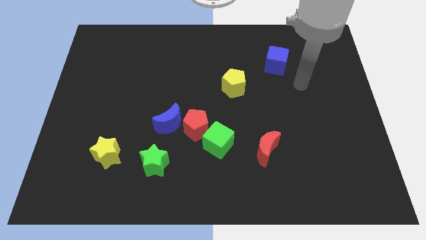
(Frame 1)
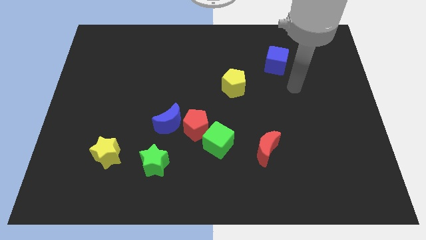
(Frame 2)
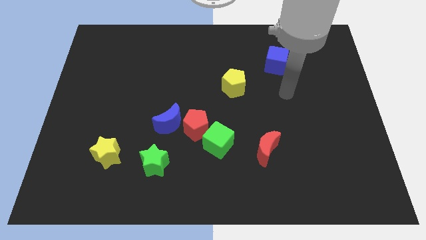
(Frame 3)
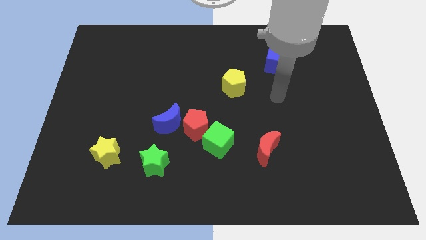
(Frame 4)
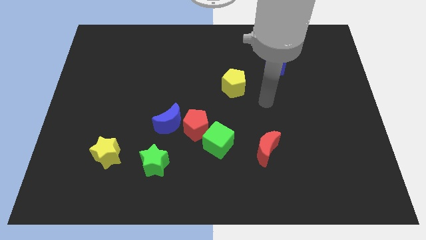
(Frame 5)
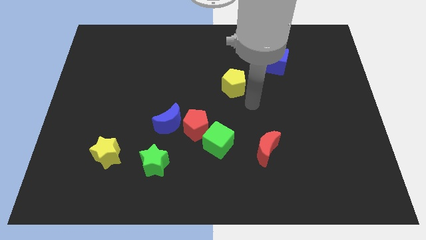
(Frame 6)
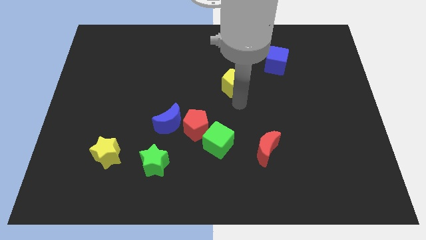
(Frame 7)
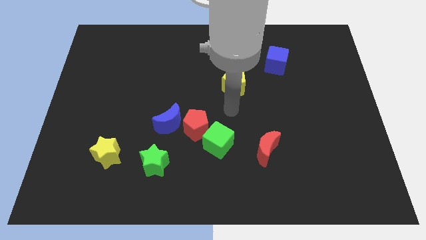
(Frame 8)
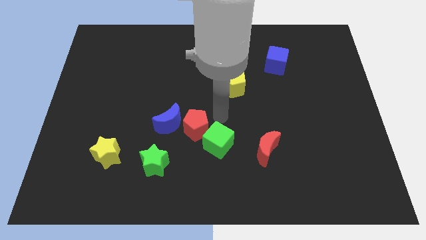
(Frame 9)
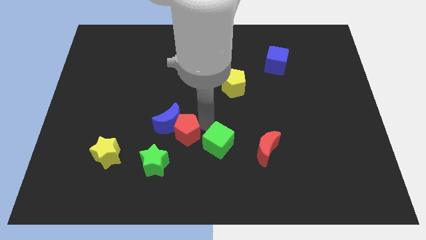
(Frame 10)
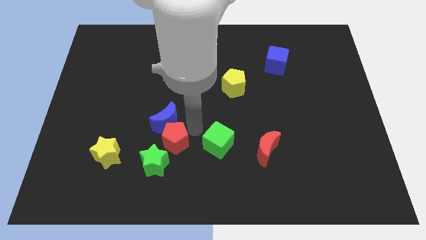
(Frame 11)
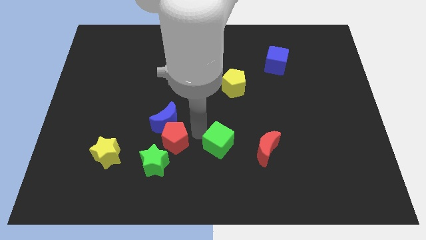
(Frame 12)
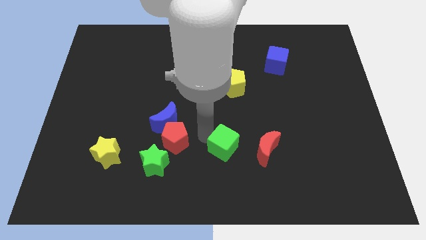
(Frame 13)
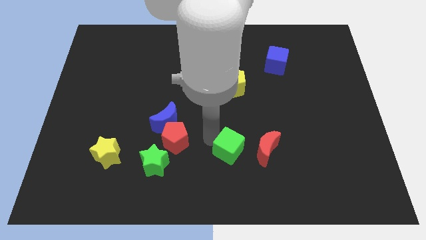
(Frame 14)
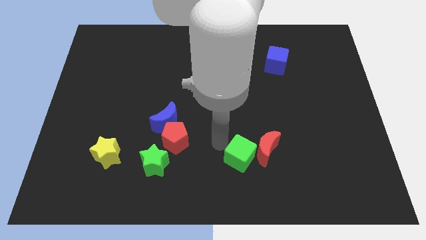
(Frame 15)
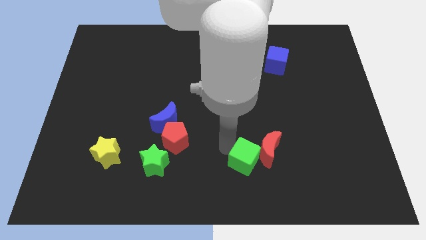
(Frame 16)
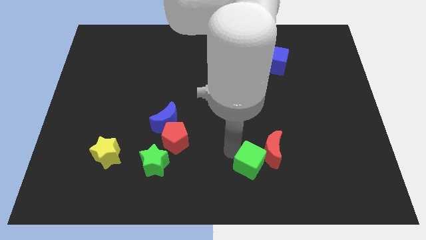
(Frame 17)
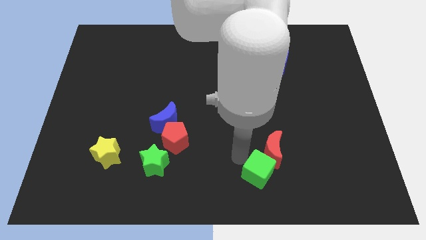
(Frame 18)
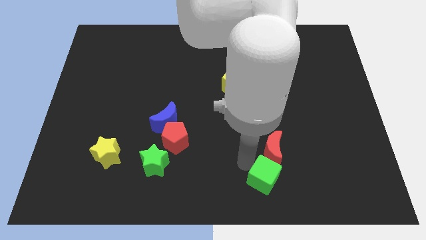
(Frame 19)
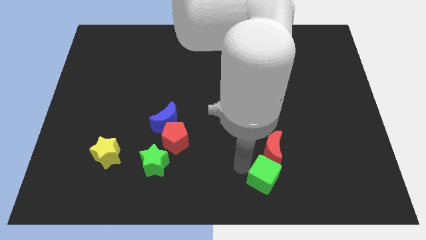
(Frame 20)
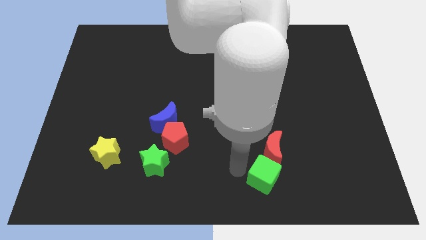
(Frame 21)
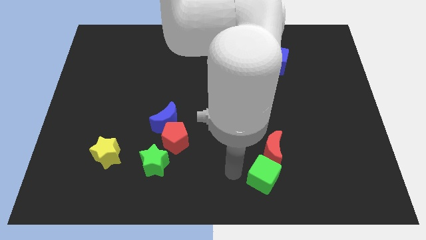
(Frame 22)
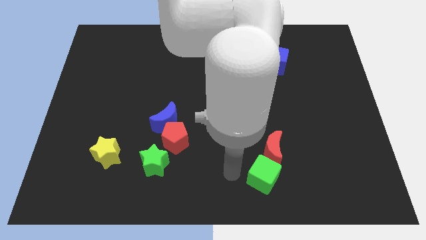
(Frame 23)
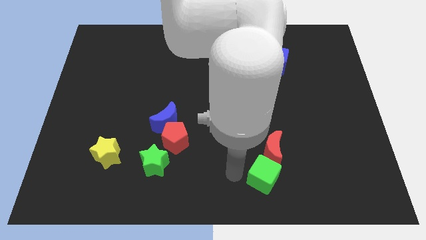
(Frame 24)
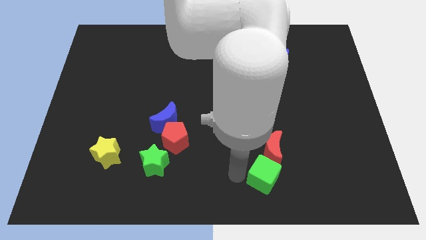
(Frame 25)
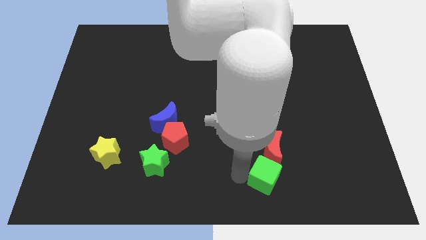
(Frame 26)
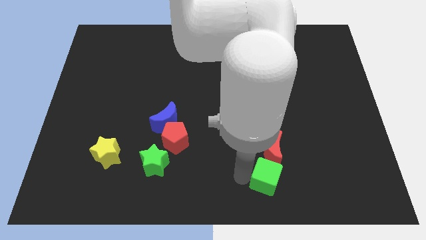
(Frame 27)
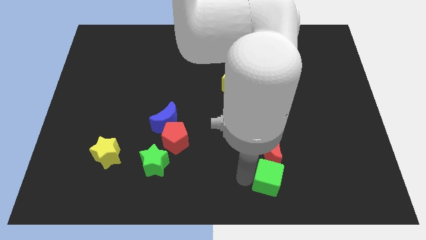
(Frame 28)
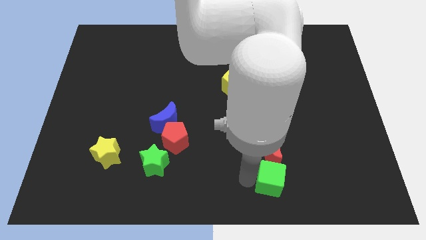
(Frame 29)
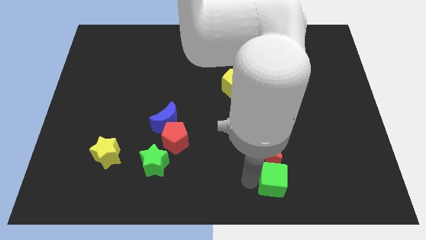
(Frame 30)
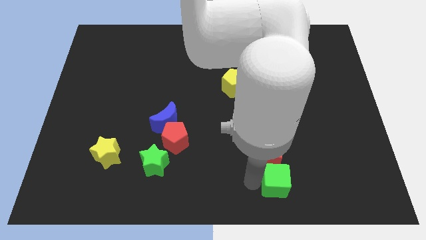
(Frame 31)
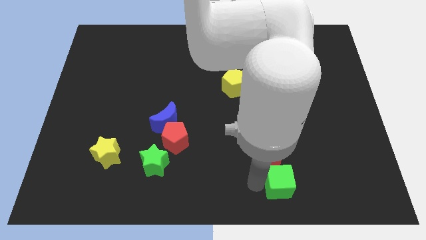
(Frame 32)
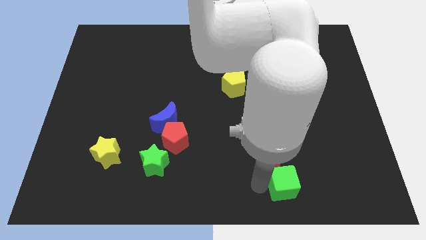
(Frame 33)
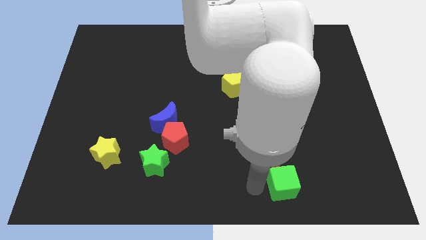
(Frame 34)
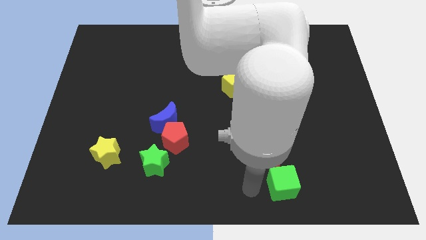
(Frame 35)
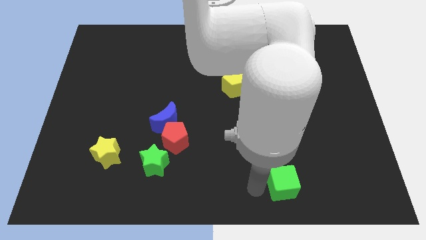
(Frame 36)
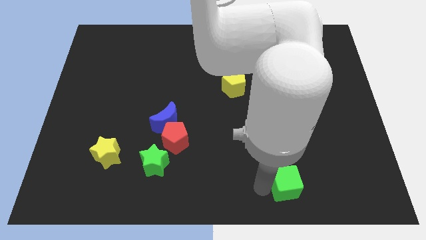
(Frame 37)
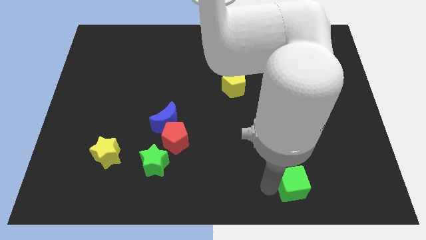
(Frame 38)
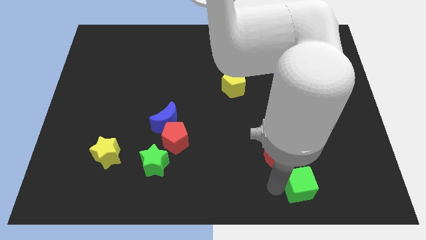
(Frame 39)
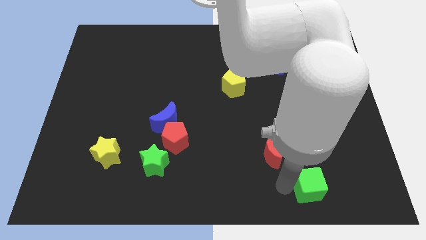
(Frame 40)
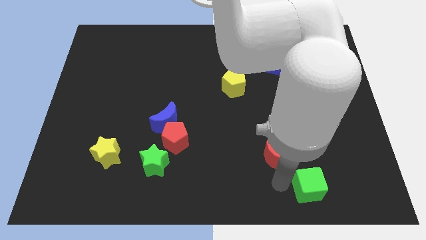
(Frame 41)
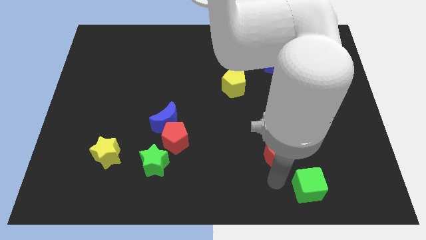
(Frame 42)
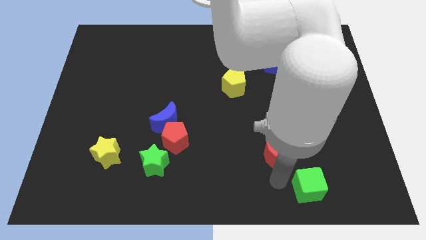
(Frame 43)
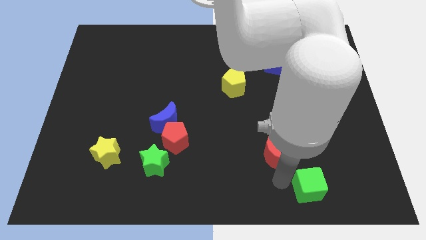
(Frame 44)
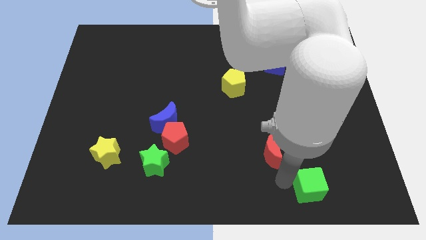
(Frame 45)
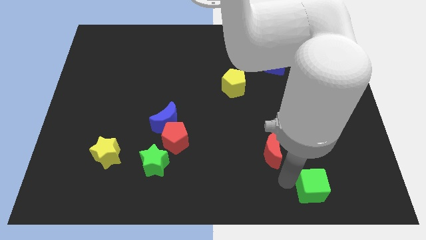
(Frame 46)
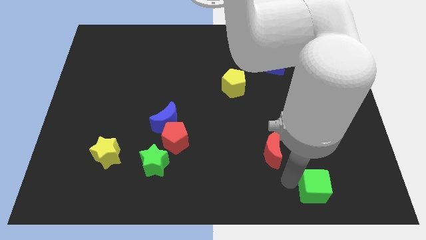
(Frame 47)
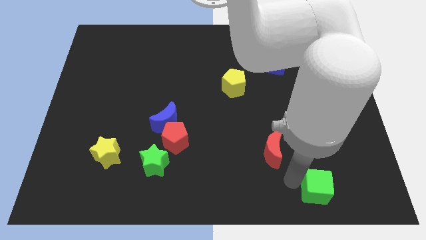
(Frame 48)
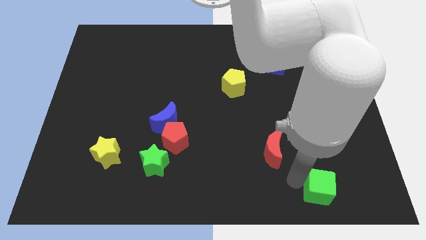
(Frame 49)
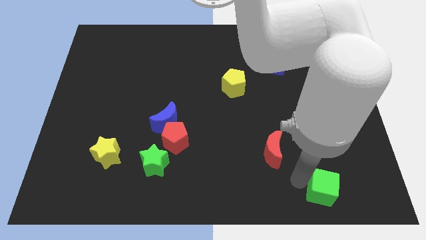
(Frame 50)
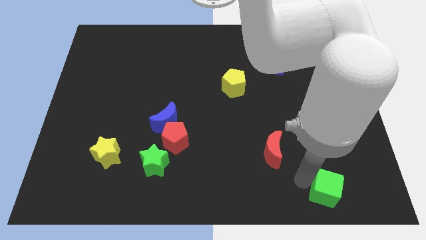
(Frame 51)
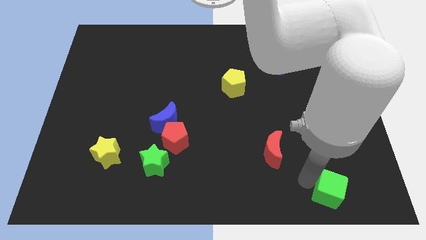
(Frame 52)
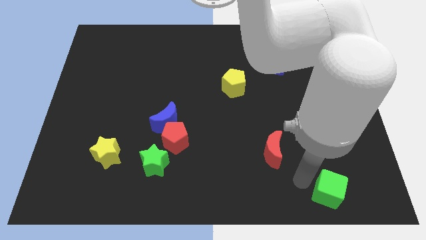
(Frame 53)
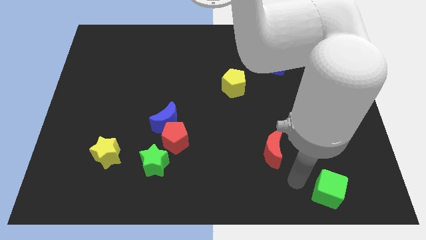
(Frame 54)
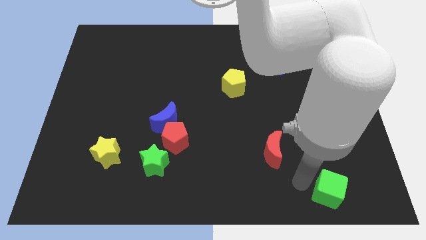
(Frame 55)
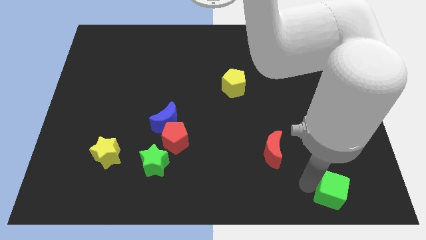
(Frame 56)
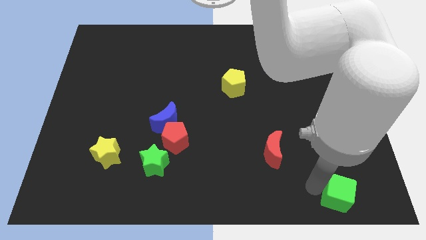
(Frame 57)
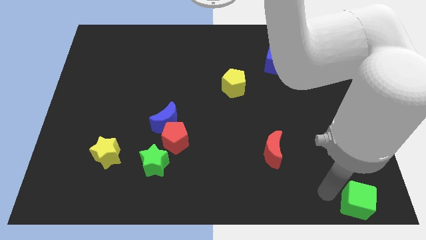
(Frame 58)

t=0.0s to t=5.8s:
push the green cube to the lower right corner

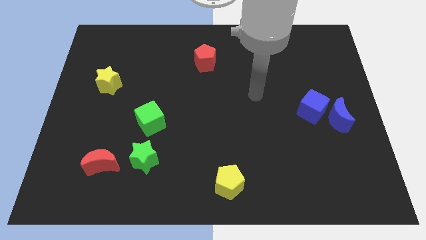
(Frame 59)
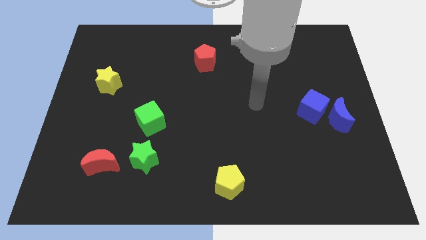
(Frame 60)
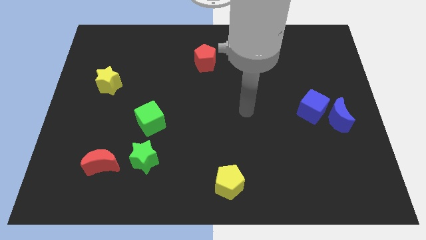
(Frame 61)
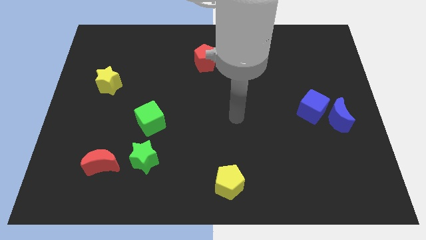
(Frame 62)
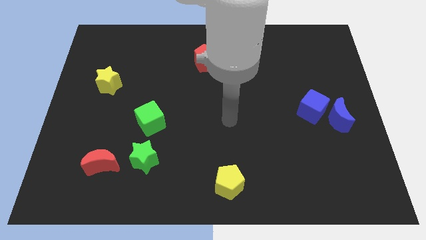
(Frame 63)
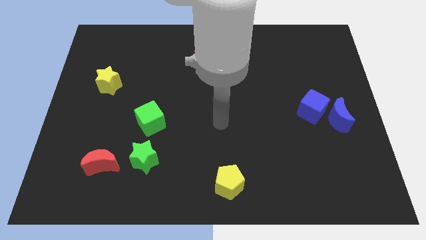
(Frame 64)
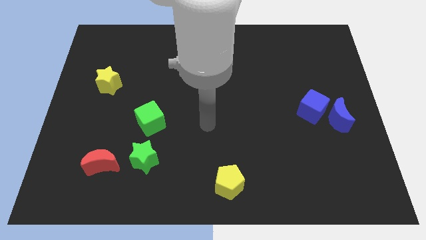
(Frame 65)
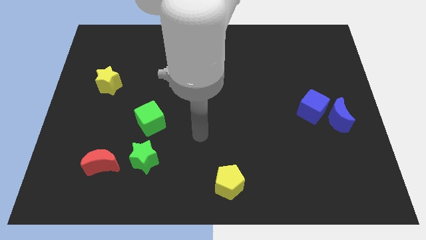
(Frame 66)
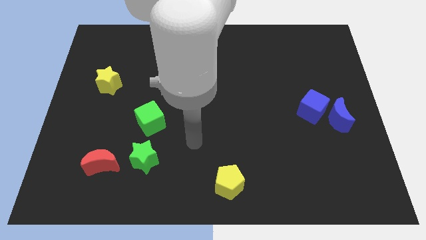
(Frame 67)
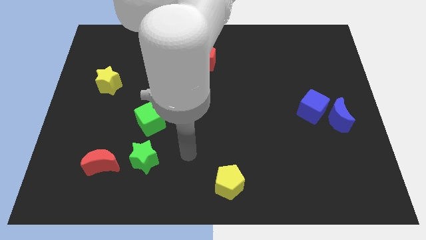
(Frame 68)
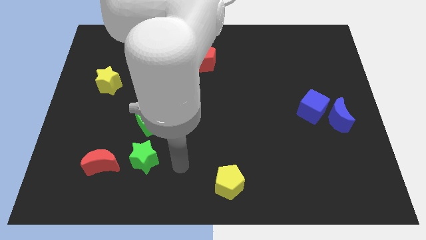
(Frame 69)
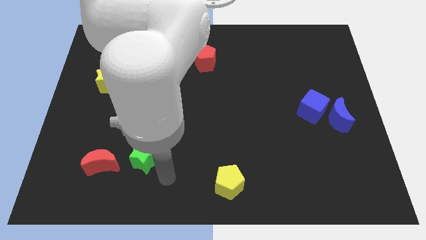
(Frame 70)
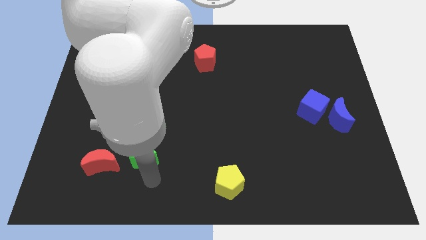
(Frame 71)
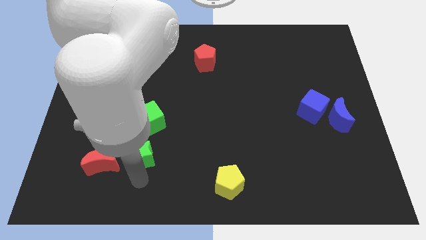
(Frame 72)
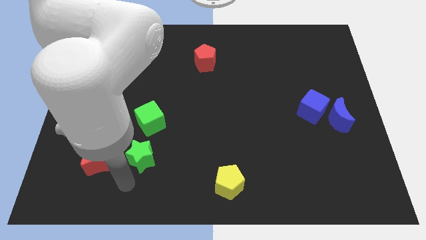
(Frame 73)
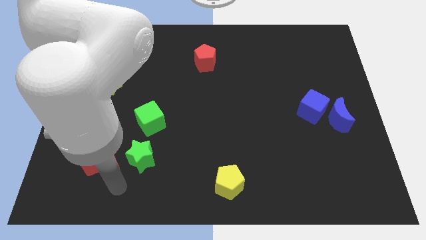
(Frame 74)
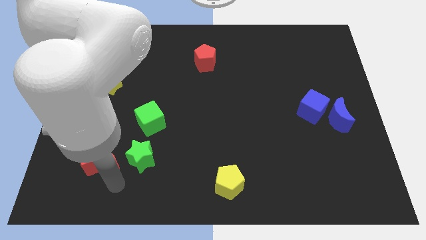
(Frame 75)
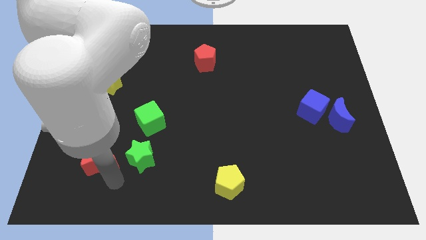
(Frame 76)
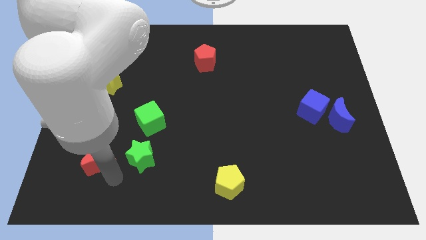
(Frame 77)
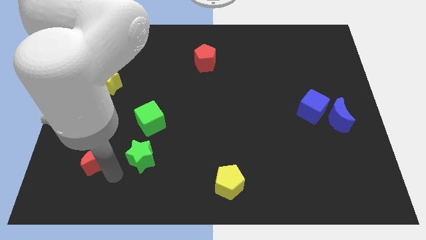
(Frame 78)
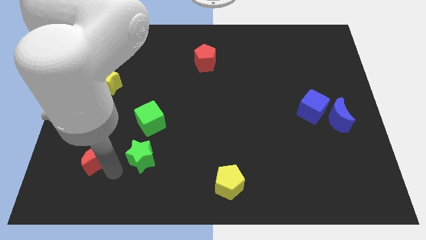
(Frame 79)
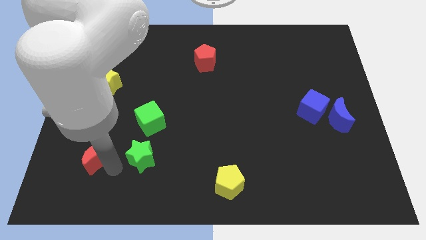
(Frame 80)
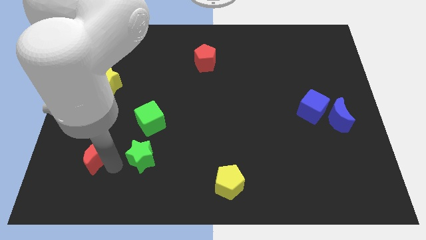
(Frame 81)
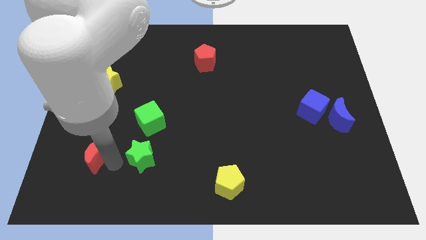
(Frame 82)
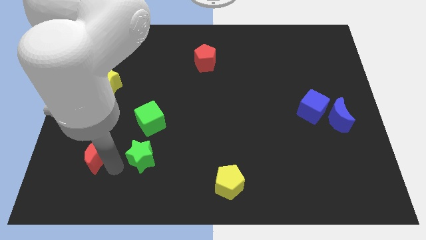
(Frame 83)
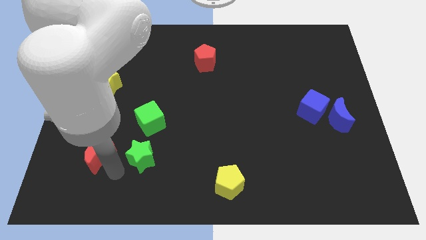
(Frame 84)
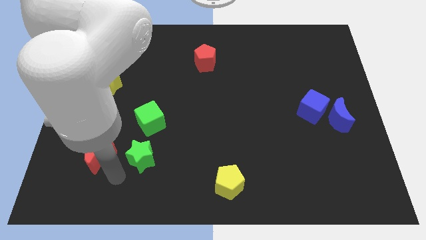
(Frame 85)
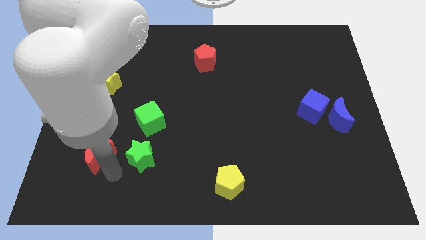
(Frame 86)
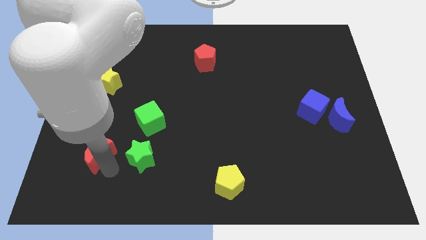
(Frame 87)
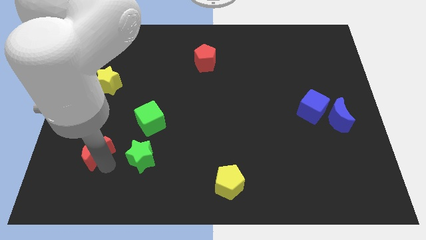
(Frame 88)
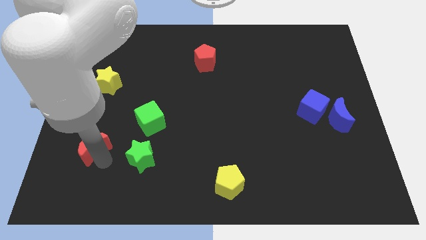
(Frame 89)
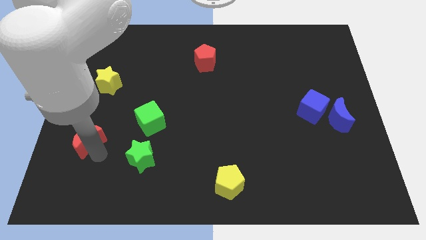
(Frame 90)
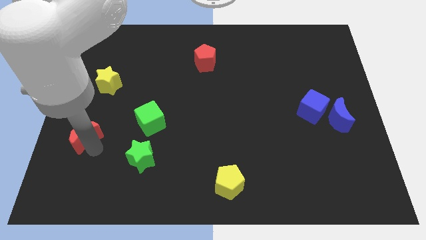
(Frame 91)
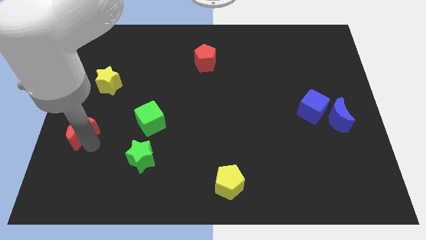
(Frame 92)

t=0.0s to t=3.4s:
put the red moon to the left side of the board
